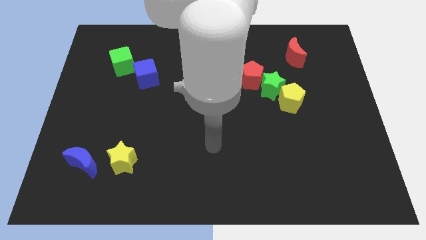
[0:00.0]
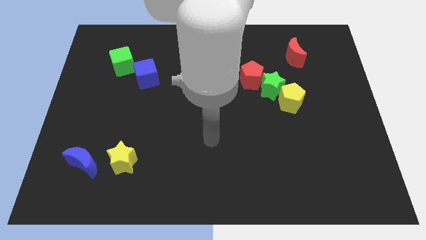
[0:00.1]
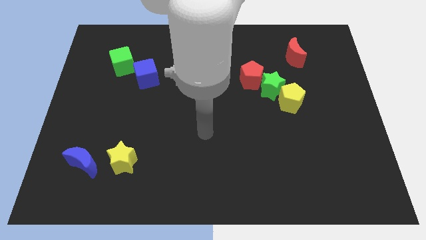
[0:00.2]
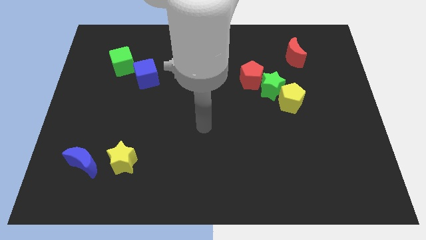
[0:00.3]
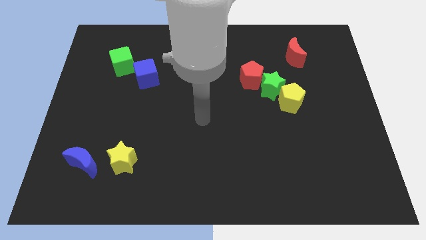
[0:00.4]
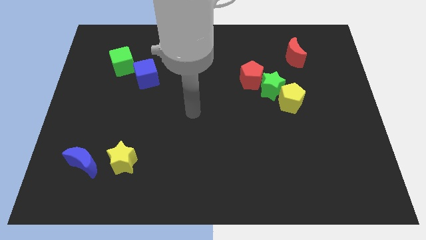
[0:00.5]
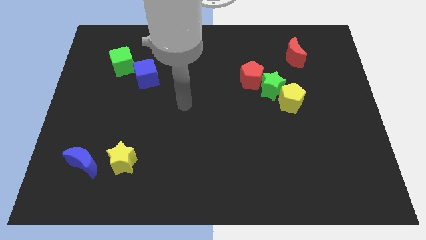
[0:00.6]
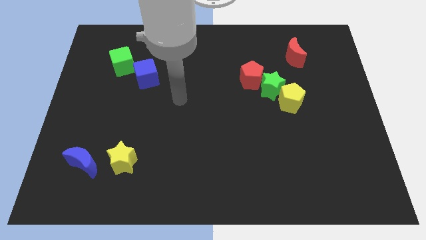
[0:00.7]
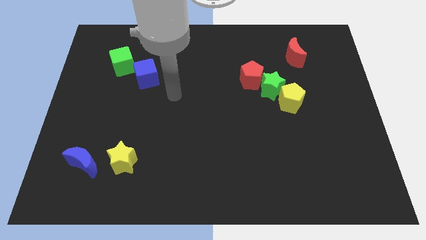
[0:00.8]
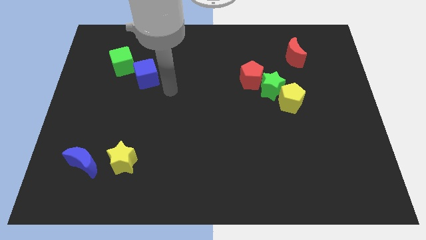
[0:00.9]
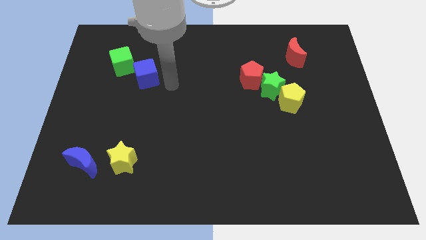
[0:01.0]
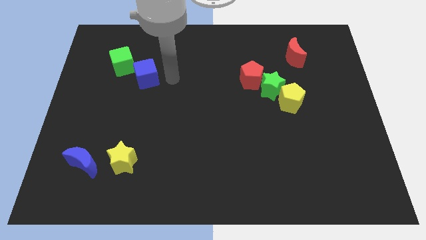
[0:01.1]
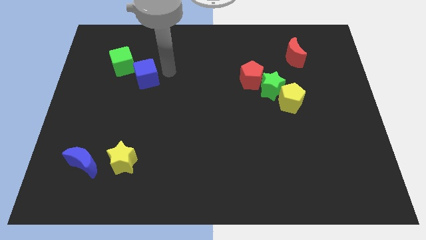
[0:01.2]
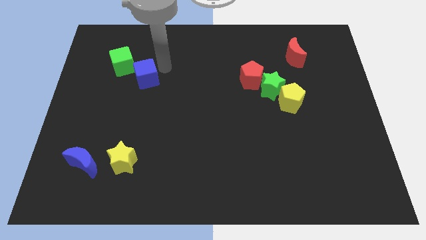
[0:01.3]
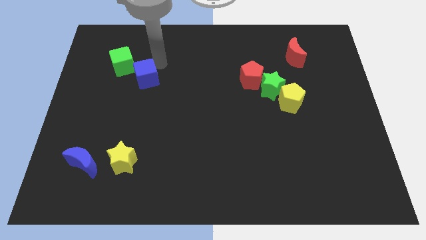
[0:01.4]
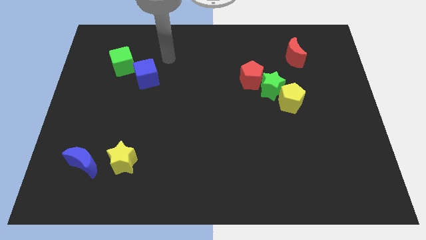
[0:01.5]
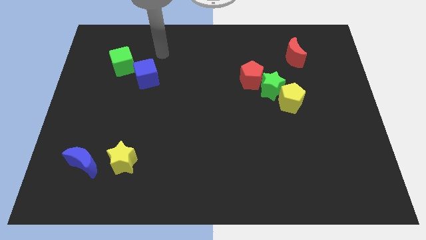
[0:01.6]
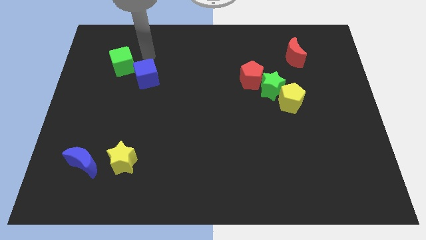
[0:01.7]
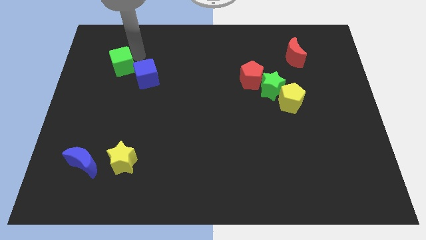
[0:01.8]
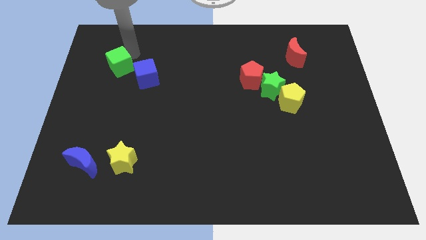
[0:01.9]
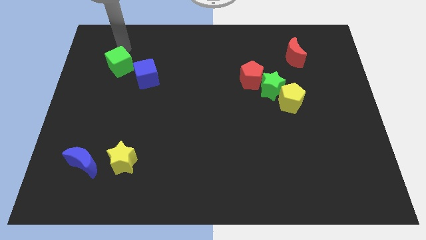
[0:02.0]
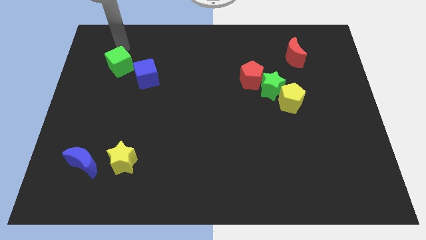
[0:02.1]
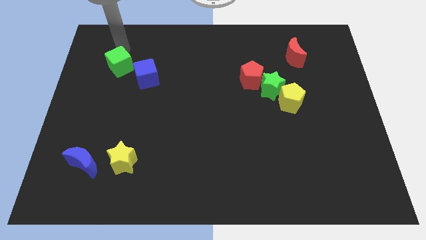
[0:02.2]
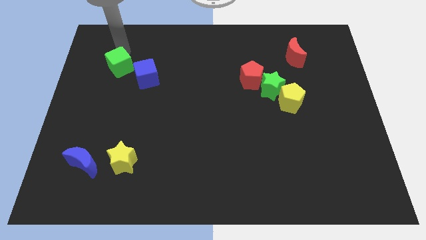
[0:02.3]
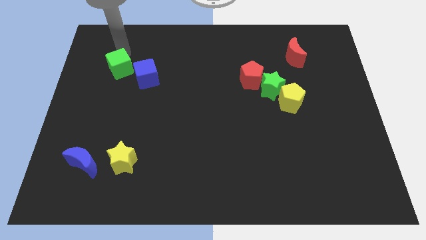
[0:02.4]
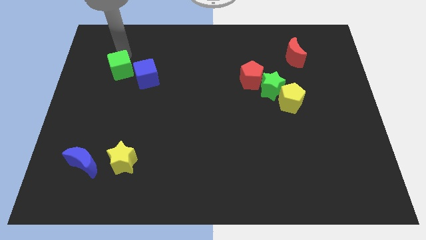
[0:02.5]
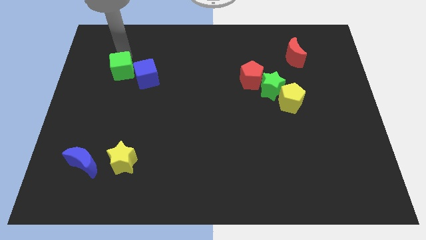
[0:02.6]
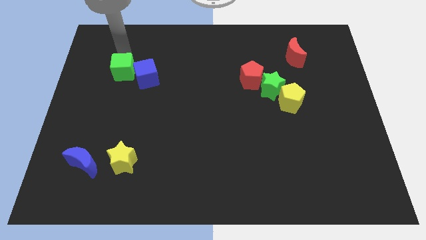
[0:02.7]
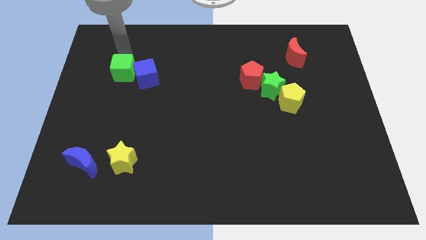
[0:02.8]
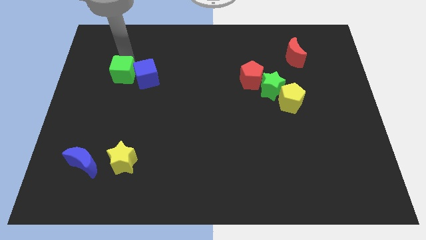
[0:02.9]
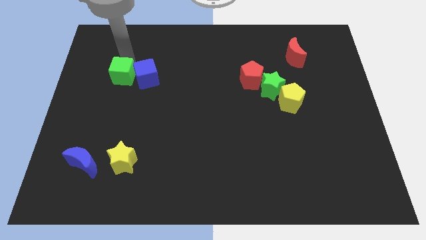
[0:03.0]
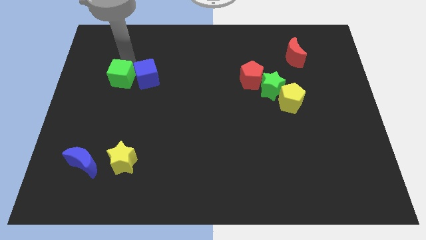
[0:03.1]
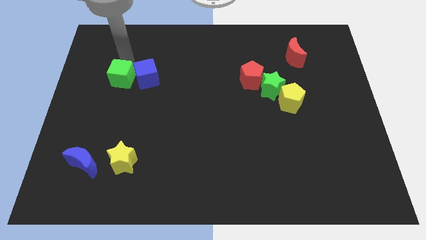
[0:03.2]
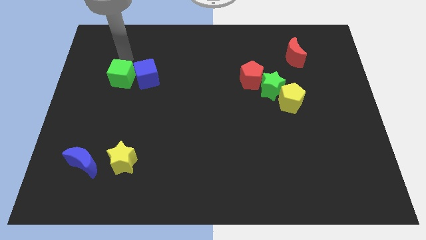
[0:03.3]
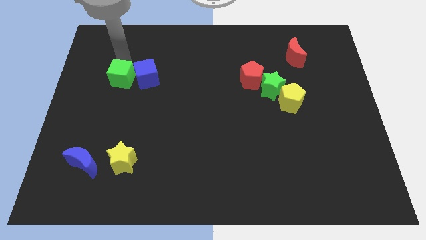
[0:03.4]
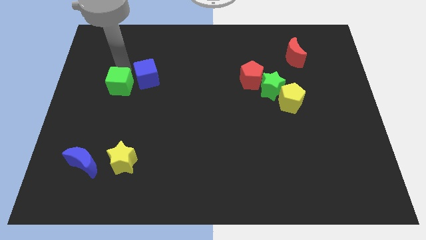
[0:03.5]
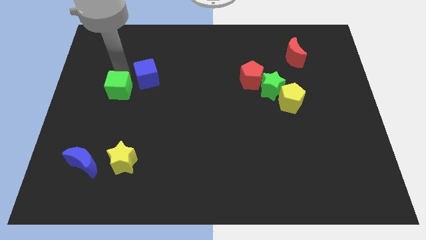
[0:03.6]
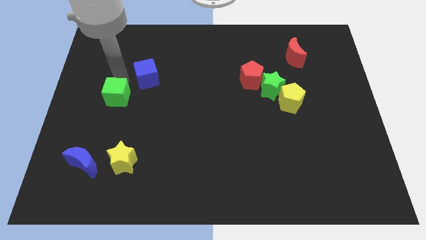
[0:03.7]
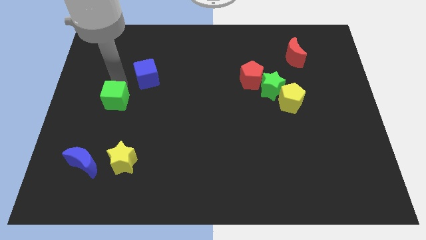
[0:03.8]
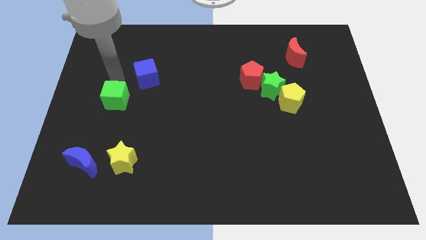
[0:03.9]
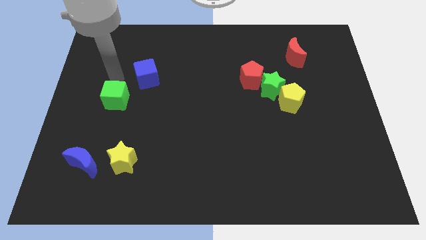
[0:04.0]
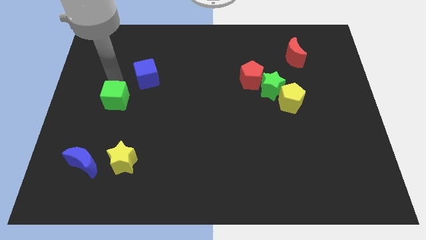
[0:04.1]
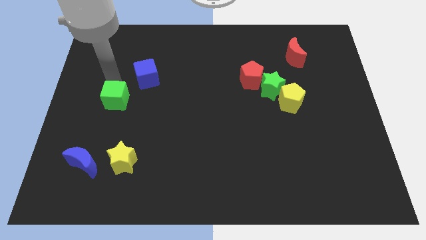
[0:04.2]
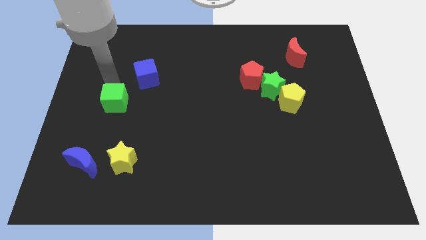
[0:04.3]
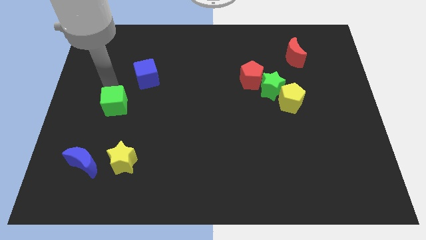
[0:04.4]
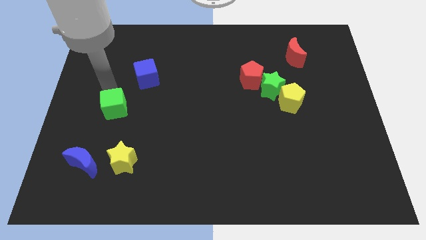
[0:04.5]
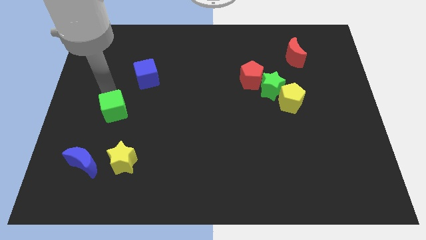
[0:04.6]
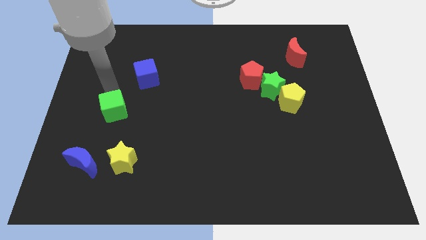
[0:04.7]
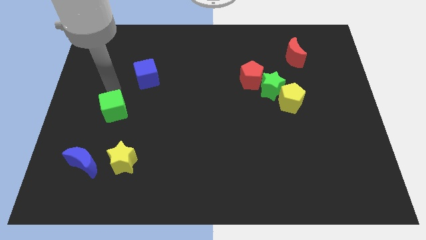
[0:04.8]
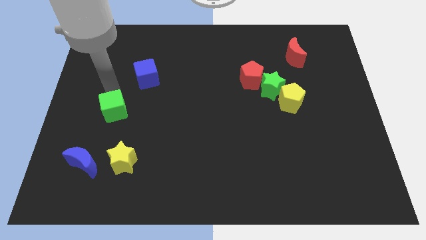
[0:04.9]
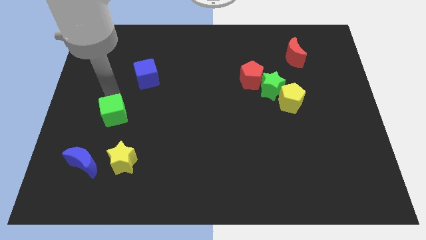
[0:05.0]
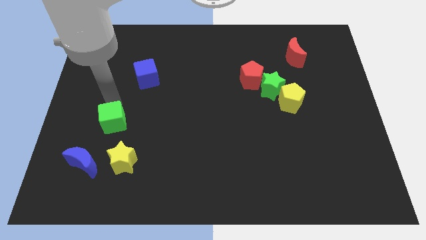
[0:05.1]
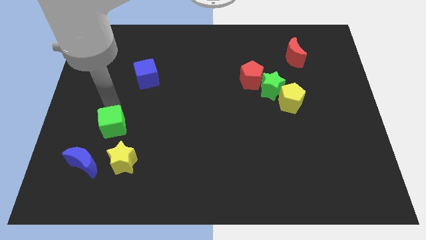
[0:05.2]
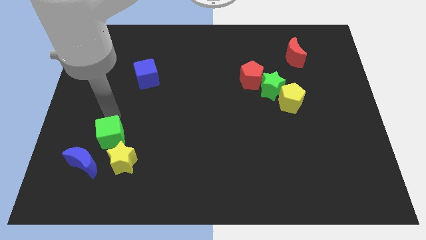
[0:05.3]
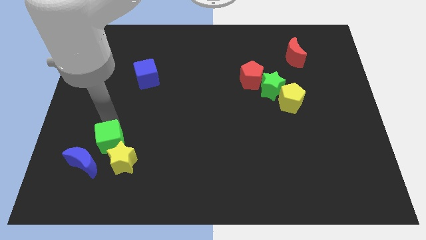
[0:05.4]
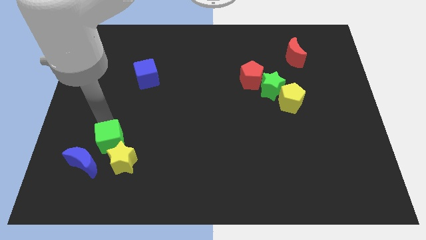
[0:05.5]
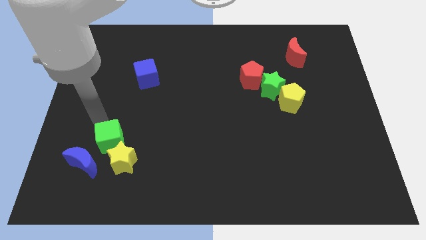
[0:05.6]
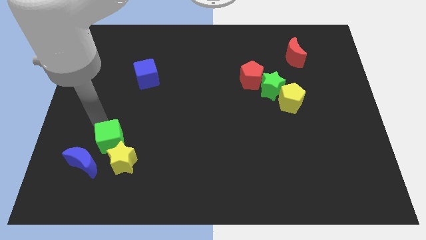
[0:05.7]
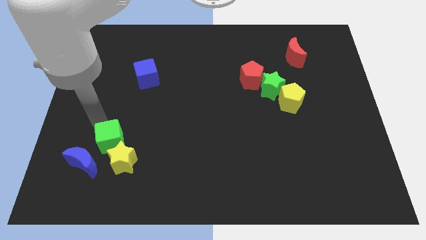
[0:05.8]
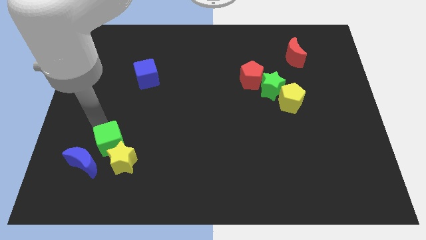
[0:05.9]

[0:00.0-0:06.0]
push the green cube next to the yellow star

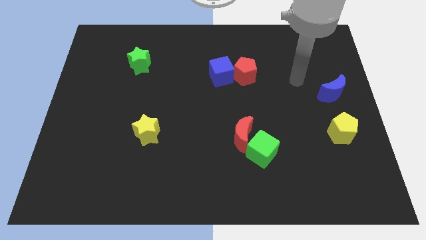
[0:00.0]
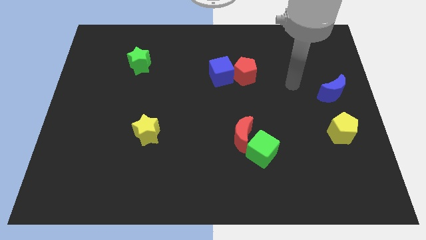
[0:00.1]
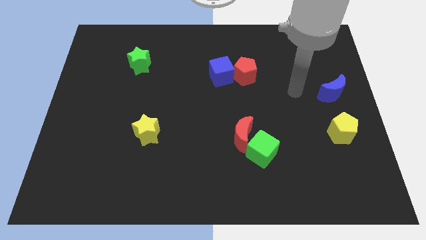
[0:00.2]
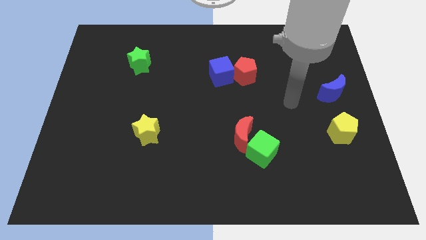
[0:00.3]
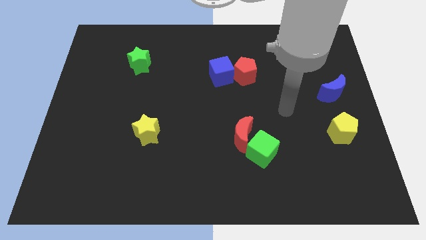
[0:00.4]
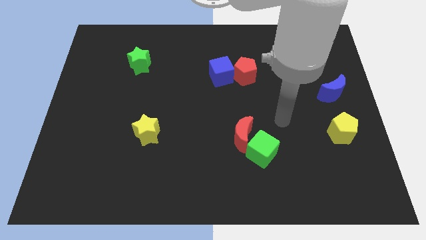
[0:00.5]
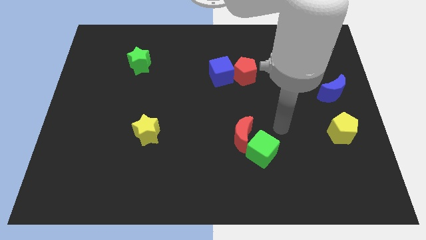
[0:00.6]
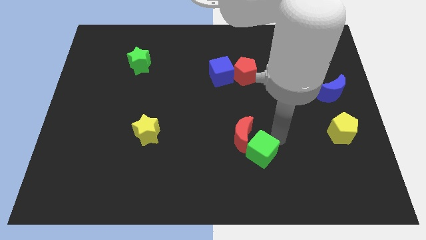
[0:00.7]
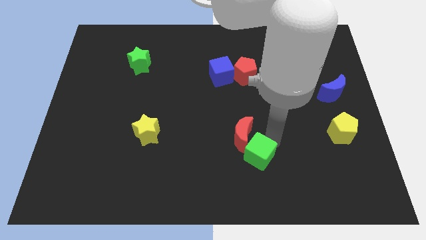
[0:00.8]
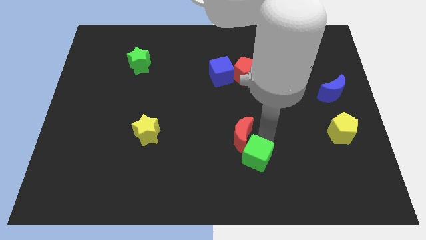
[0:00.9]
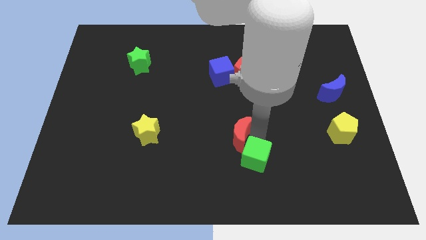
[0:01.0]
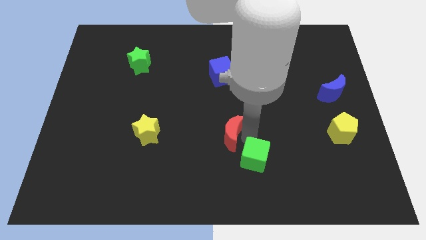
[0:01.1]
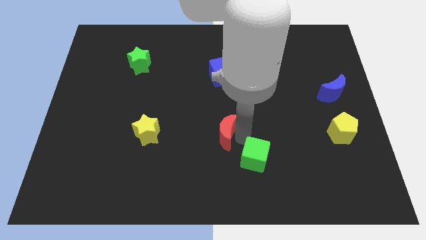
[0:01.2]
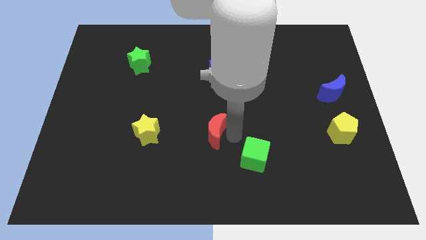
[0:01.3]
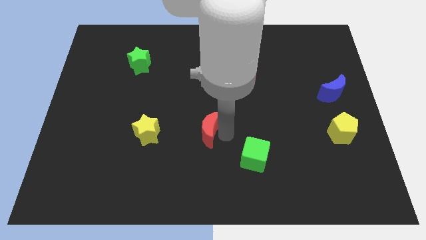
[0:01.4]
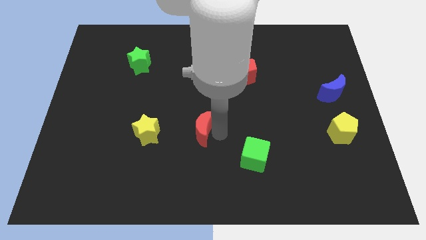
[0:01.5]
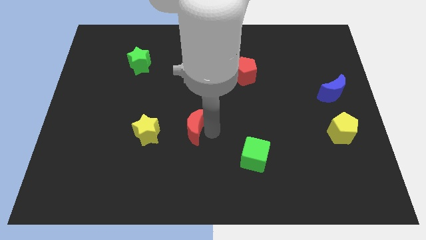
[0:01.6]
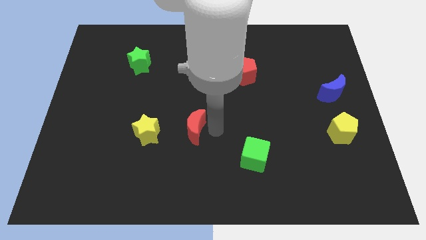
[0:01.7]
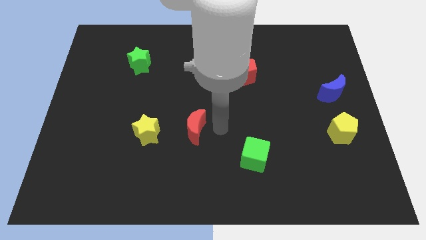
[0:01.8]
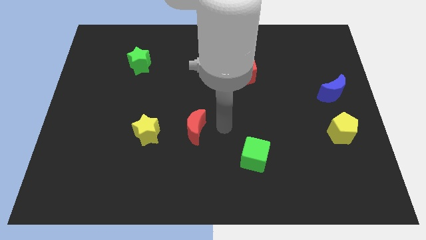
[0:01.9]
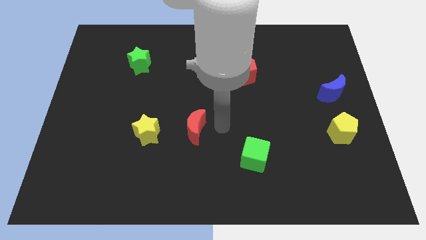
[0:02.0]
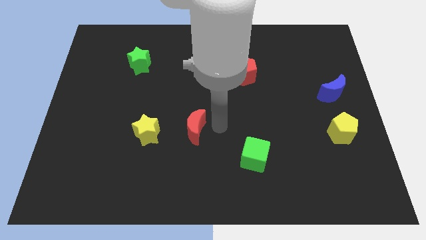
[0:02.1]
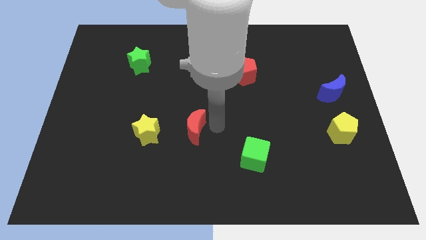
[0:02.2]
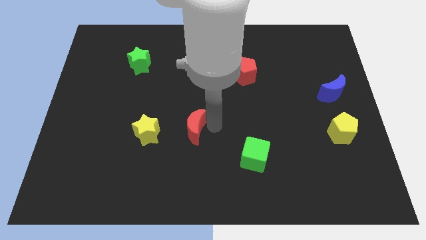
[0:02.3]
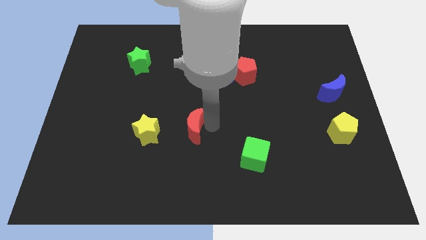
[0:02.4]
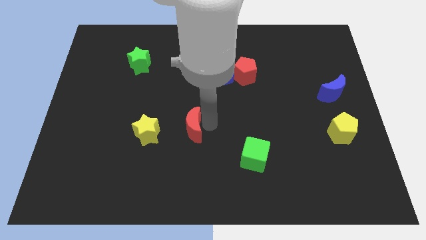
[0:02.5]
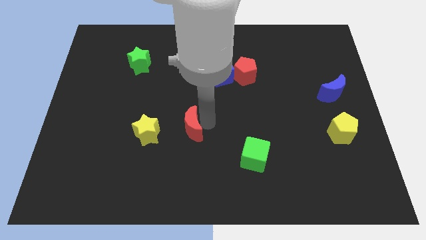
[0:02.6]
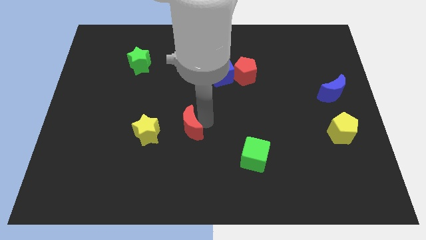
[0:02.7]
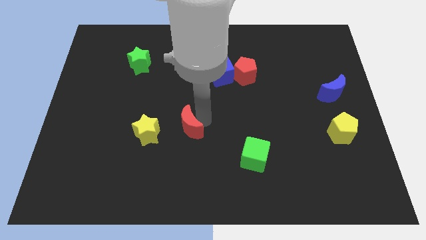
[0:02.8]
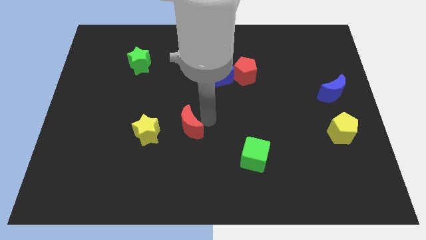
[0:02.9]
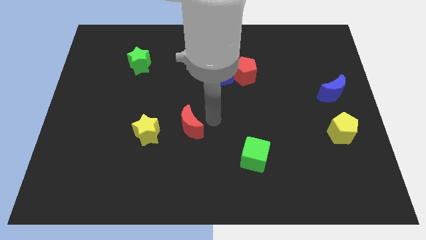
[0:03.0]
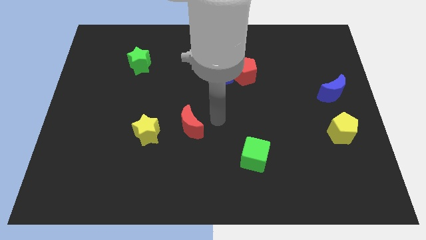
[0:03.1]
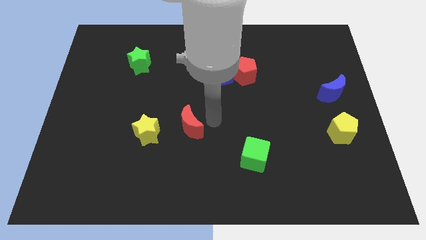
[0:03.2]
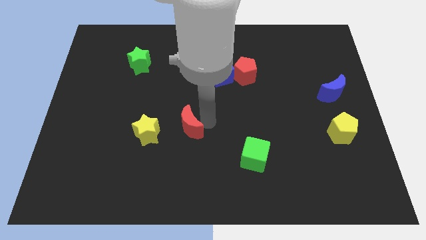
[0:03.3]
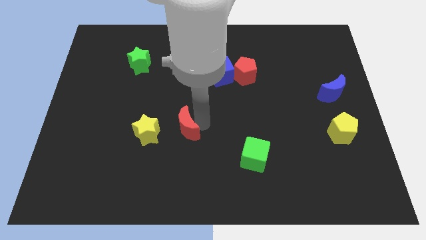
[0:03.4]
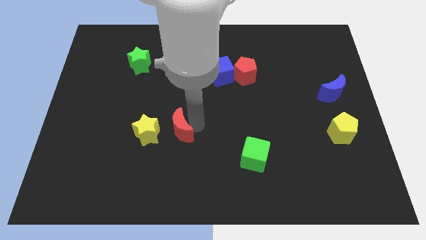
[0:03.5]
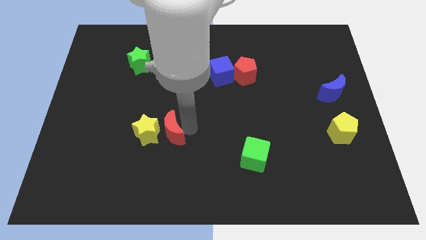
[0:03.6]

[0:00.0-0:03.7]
push the red moon towards the yellow star
